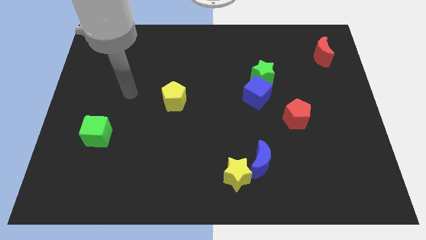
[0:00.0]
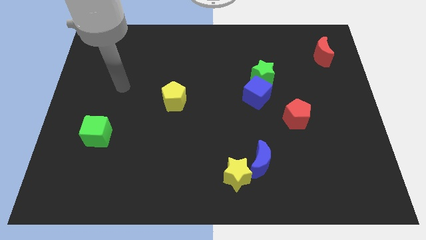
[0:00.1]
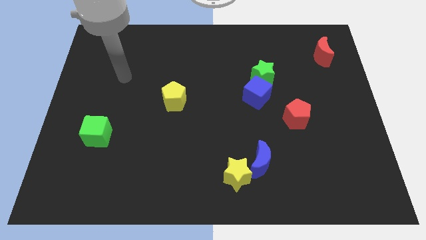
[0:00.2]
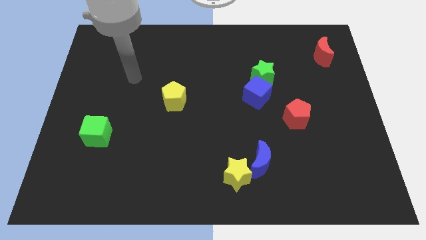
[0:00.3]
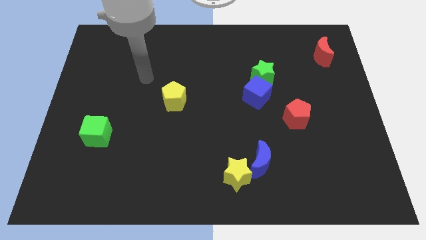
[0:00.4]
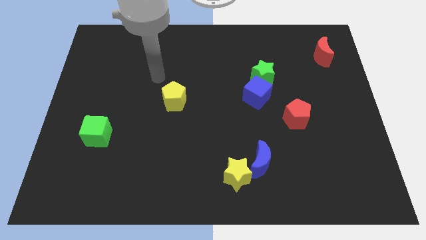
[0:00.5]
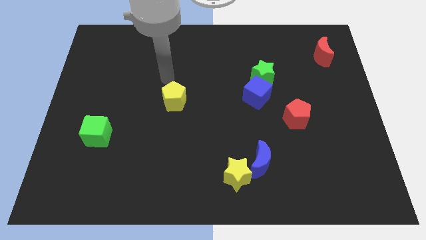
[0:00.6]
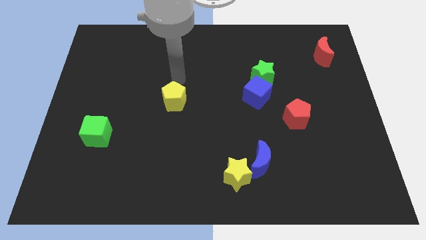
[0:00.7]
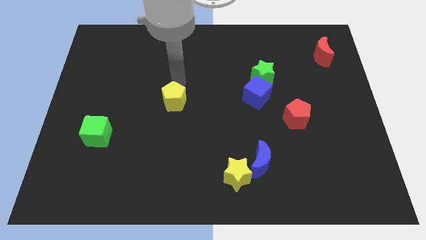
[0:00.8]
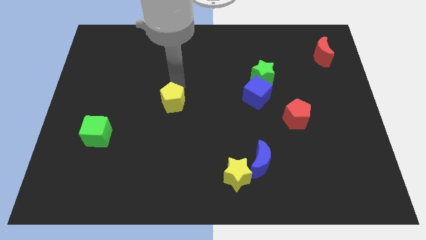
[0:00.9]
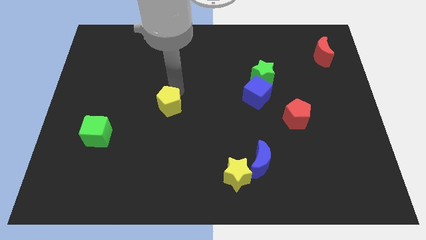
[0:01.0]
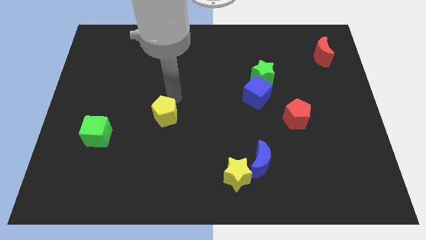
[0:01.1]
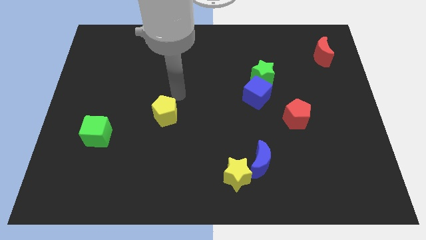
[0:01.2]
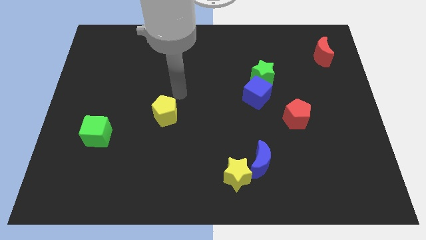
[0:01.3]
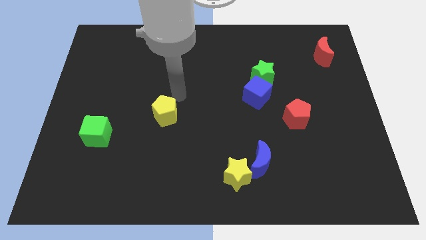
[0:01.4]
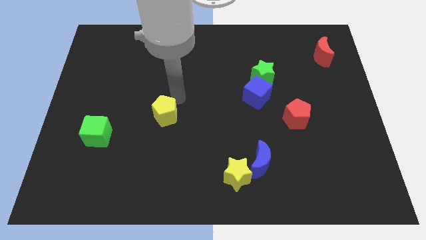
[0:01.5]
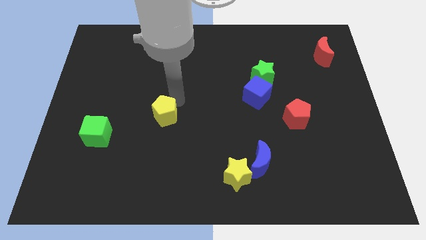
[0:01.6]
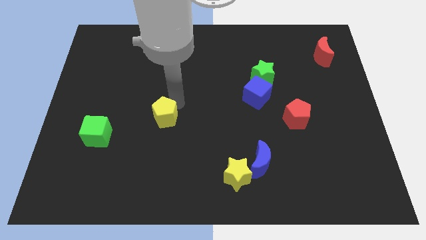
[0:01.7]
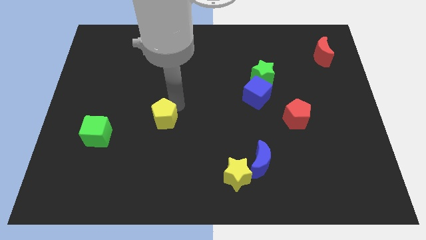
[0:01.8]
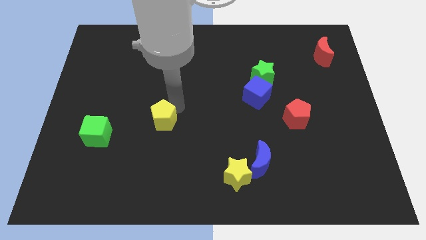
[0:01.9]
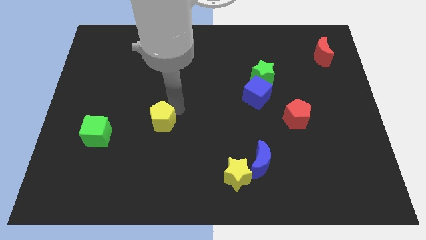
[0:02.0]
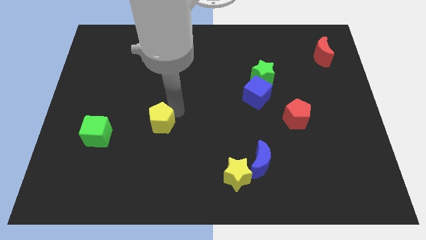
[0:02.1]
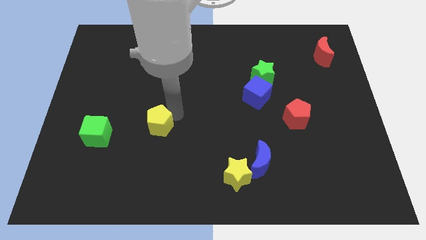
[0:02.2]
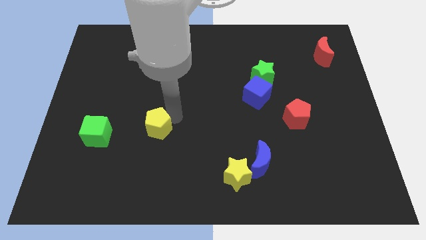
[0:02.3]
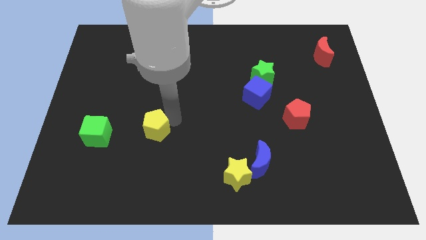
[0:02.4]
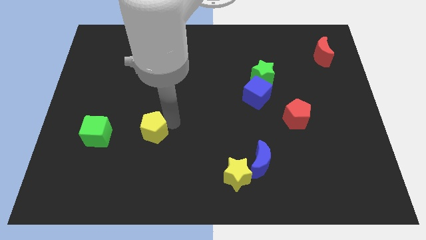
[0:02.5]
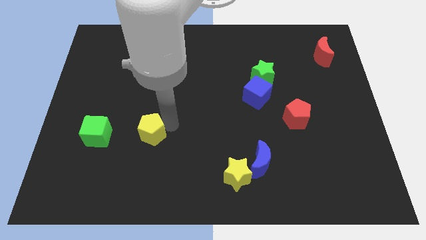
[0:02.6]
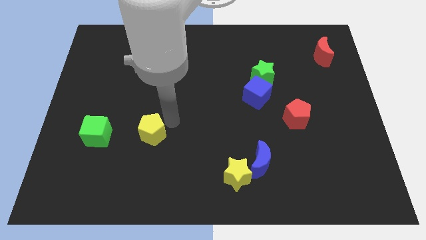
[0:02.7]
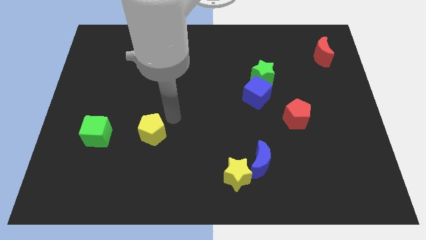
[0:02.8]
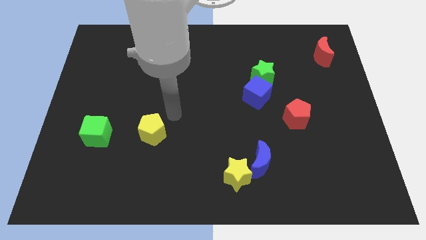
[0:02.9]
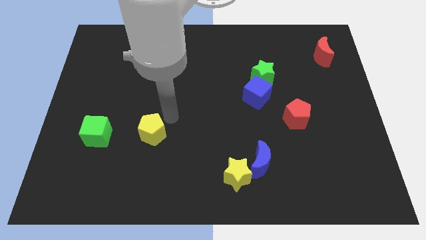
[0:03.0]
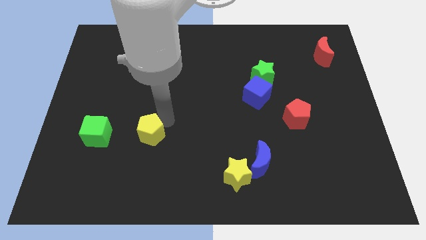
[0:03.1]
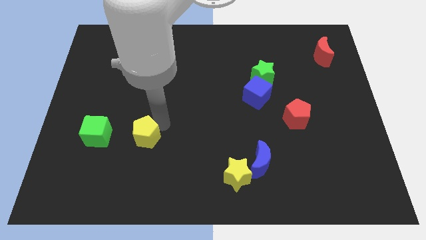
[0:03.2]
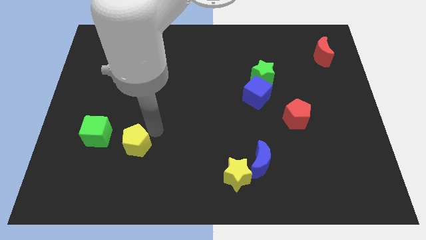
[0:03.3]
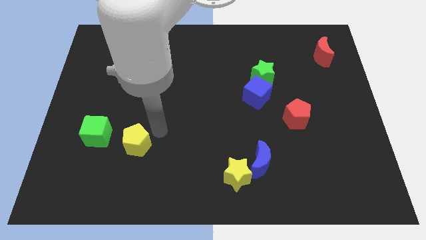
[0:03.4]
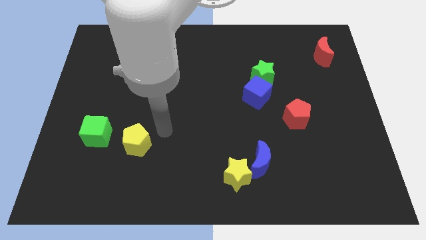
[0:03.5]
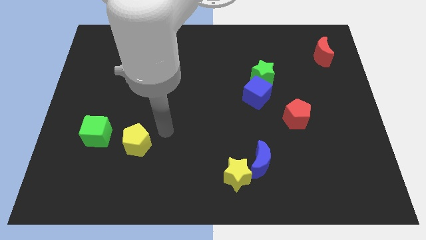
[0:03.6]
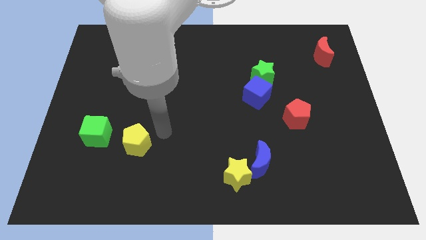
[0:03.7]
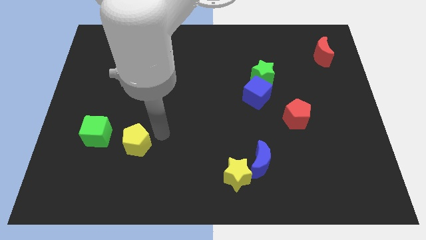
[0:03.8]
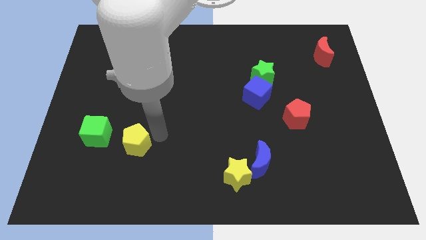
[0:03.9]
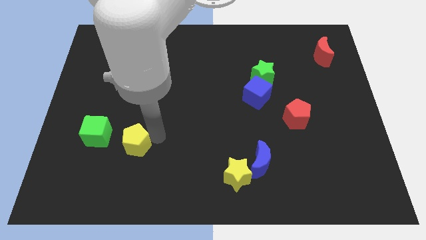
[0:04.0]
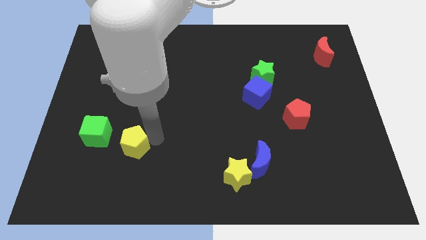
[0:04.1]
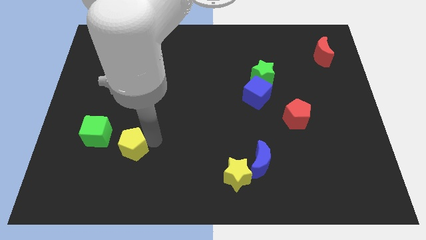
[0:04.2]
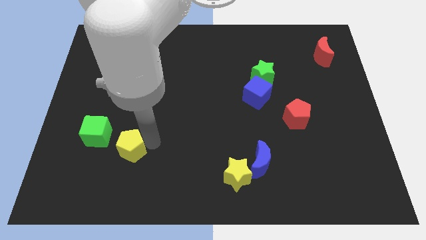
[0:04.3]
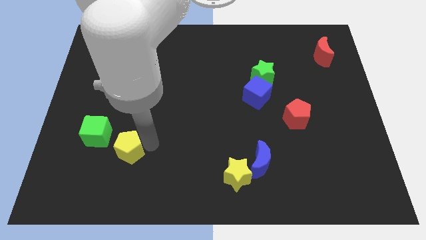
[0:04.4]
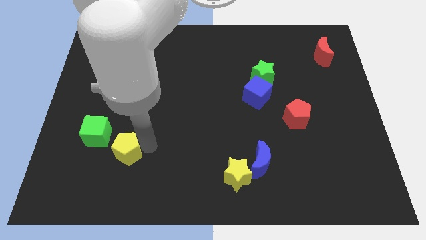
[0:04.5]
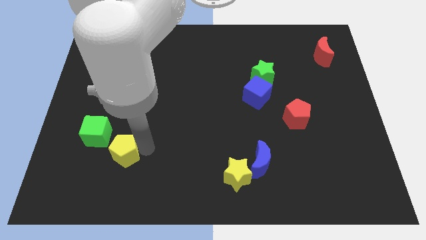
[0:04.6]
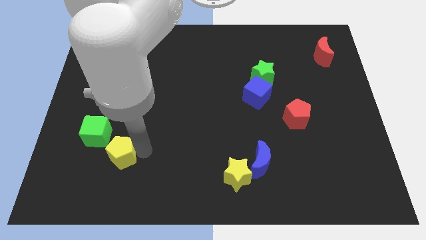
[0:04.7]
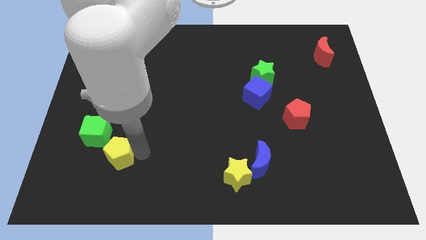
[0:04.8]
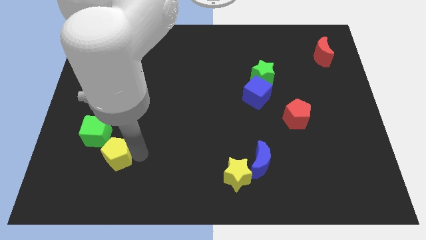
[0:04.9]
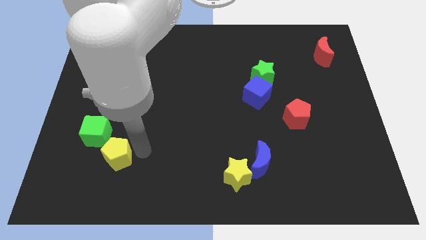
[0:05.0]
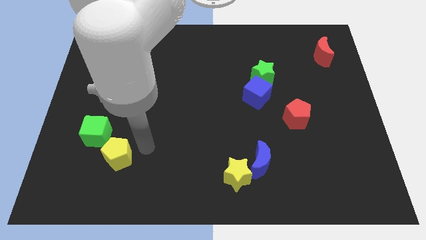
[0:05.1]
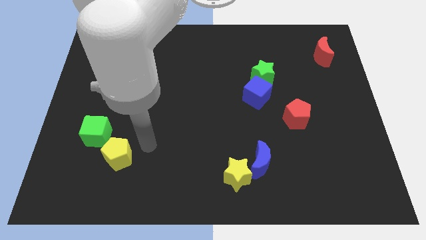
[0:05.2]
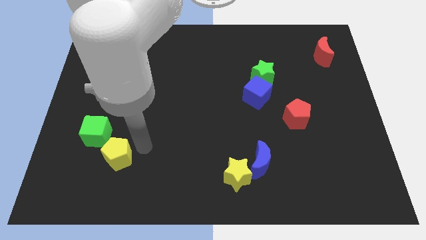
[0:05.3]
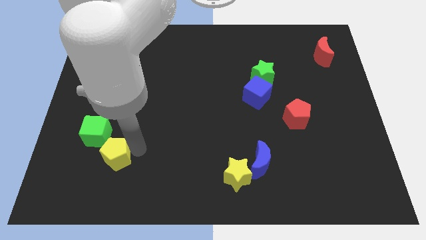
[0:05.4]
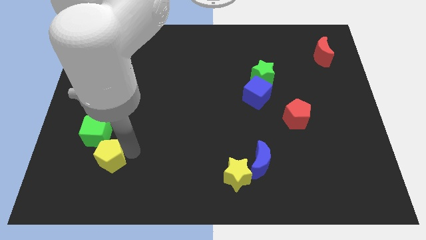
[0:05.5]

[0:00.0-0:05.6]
move the yellow pentagon below the green cube
